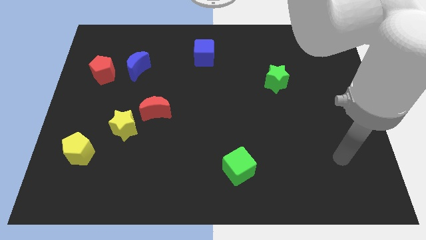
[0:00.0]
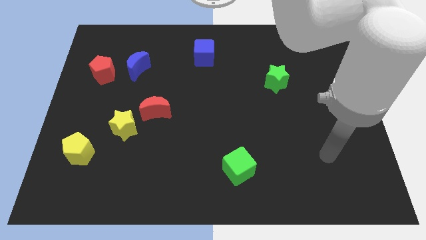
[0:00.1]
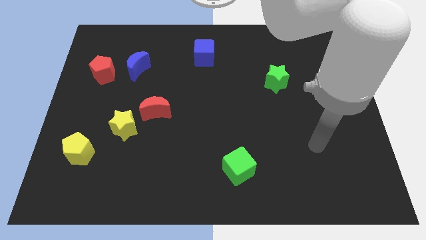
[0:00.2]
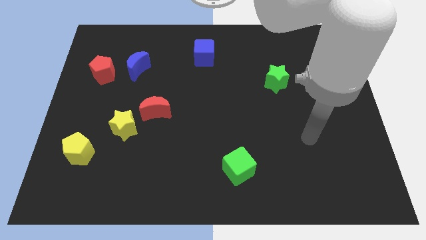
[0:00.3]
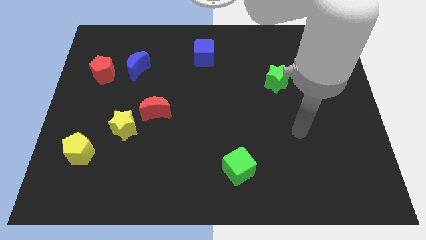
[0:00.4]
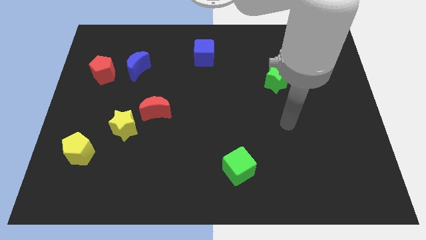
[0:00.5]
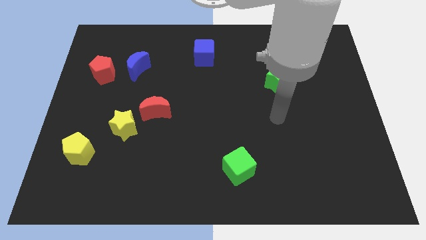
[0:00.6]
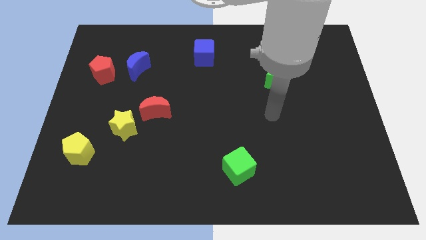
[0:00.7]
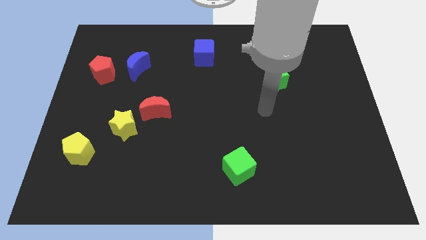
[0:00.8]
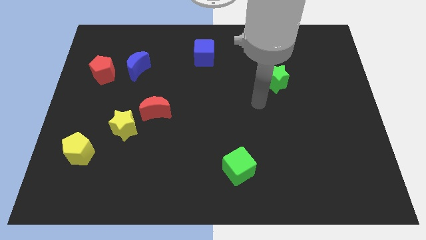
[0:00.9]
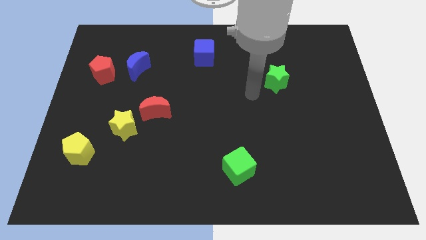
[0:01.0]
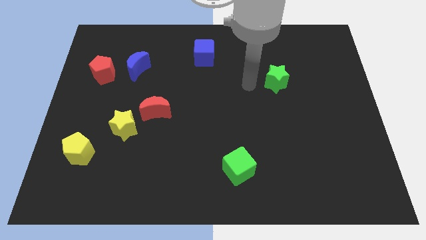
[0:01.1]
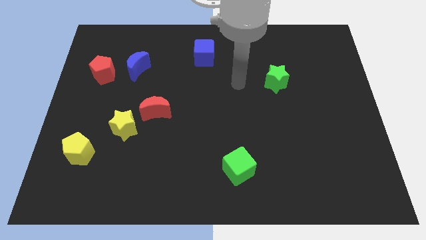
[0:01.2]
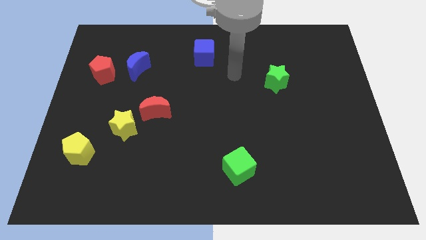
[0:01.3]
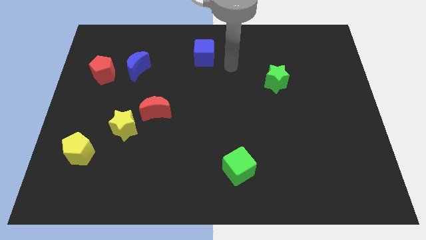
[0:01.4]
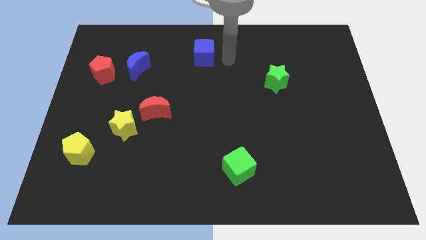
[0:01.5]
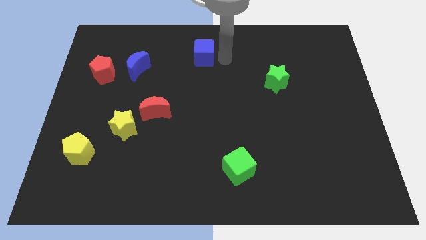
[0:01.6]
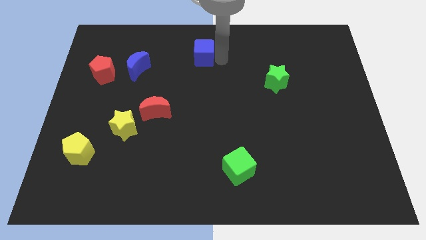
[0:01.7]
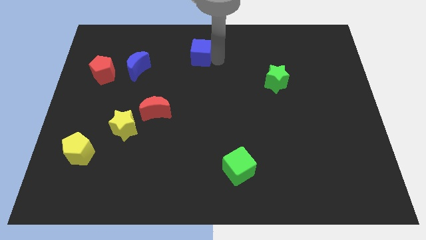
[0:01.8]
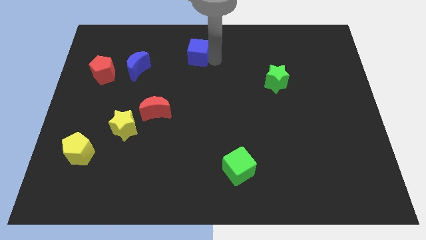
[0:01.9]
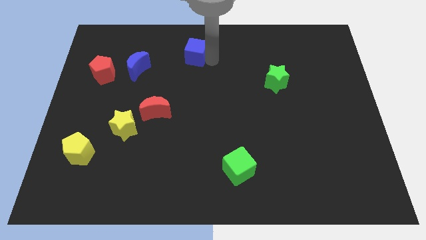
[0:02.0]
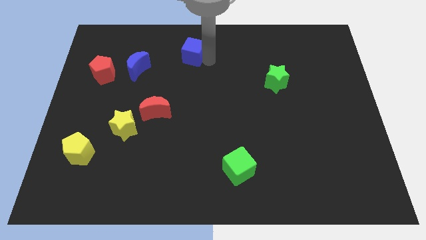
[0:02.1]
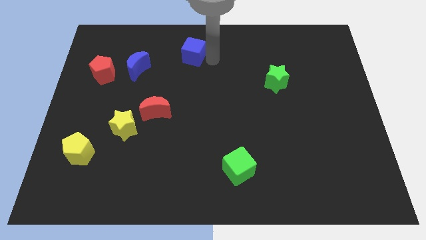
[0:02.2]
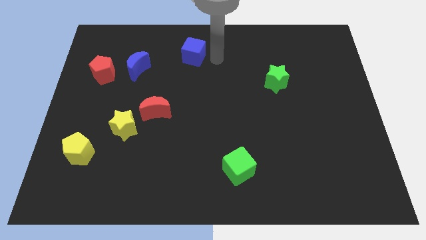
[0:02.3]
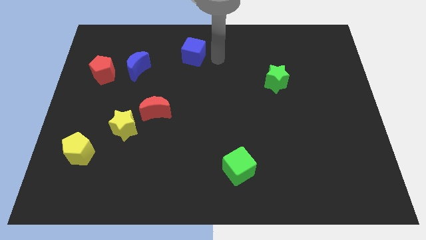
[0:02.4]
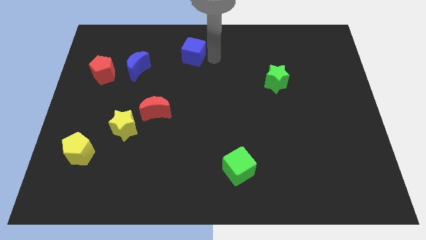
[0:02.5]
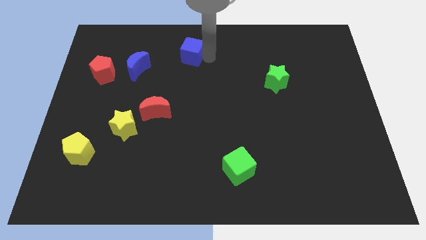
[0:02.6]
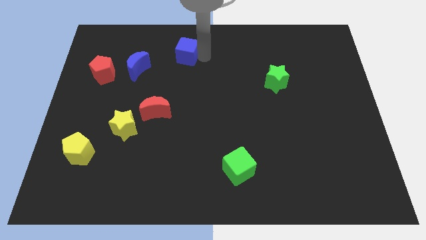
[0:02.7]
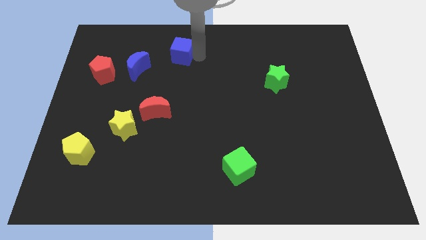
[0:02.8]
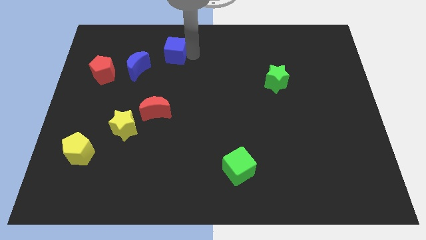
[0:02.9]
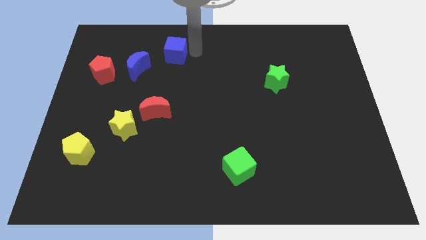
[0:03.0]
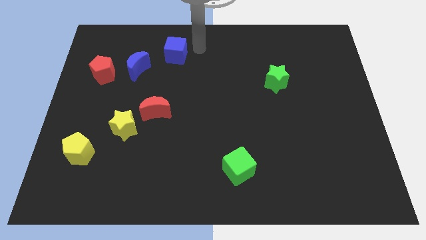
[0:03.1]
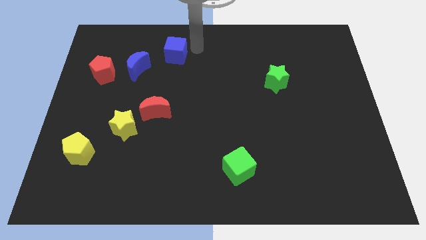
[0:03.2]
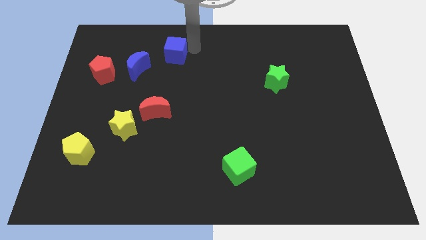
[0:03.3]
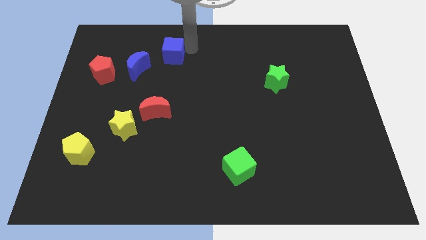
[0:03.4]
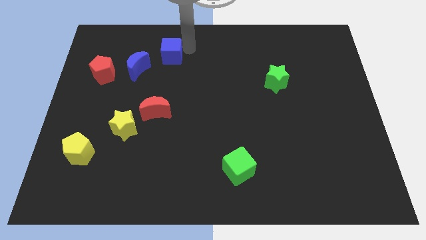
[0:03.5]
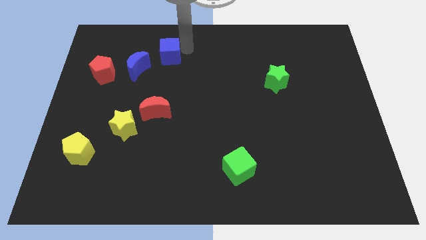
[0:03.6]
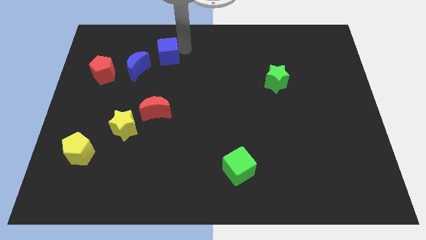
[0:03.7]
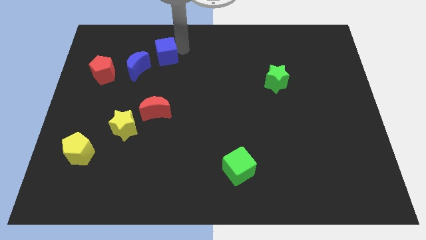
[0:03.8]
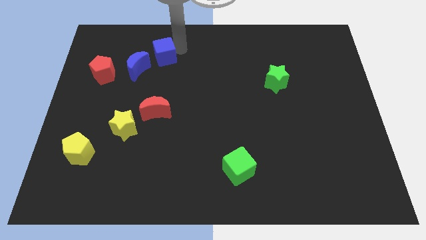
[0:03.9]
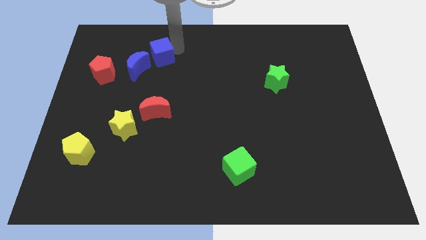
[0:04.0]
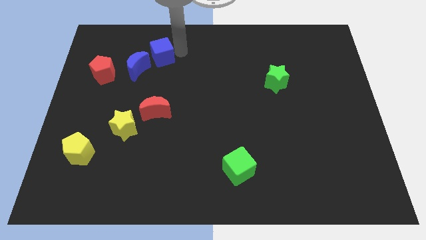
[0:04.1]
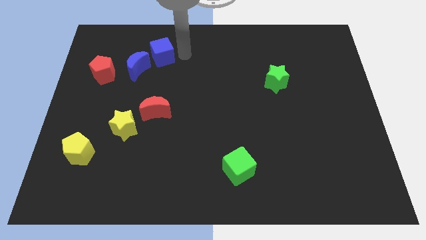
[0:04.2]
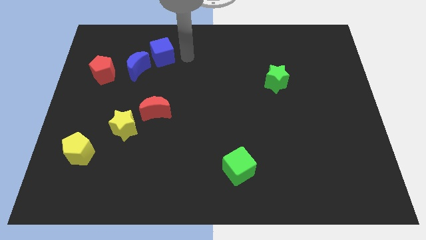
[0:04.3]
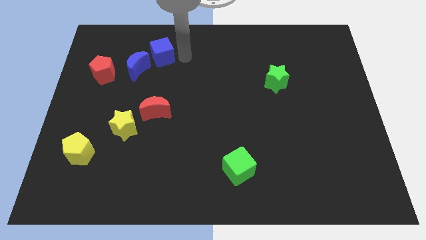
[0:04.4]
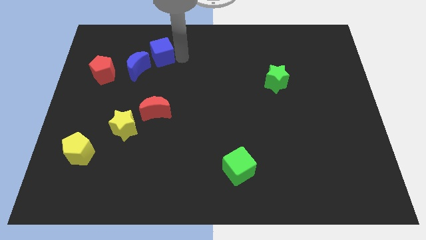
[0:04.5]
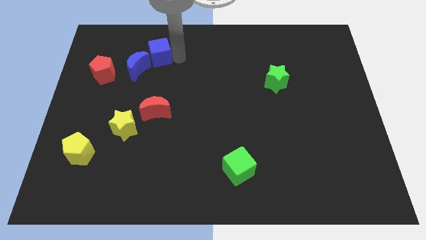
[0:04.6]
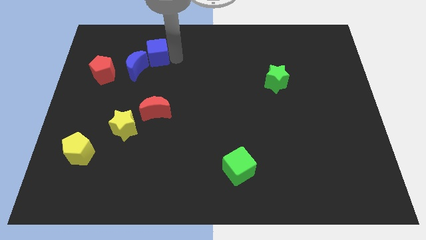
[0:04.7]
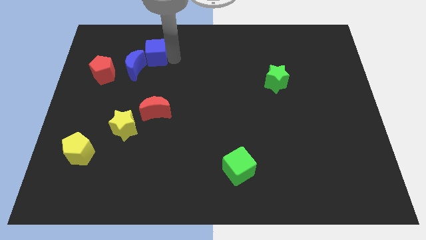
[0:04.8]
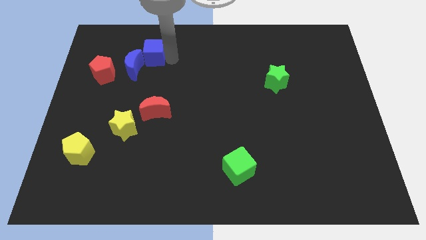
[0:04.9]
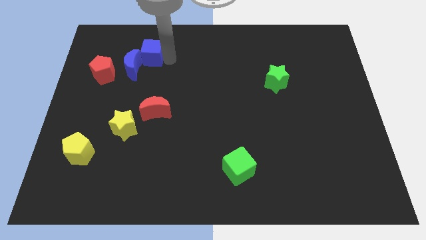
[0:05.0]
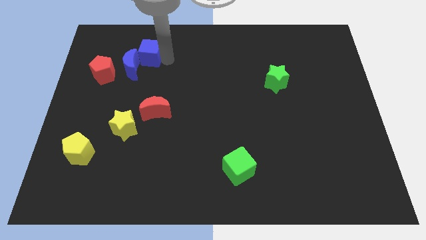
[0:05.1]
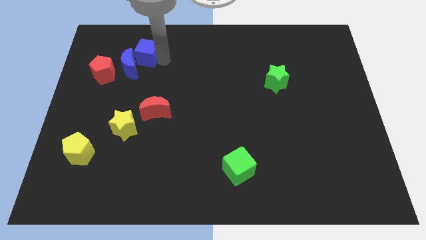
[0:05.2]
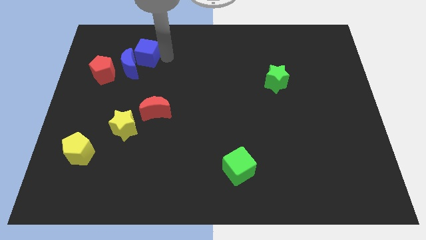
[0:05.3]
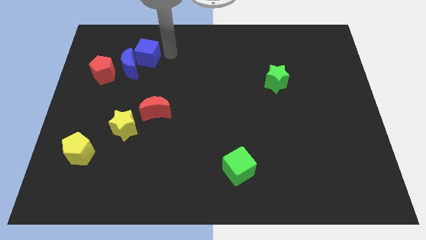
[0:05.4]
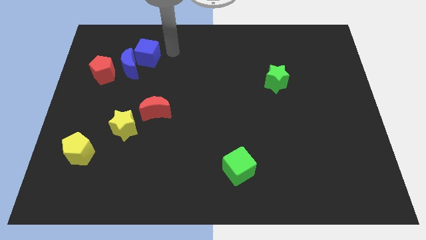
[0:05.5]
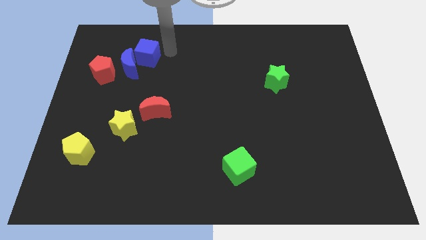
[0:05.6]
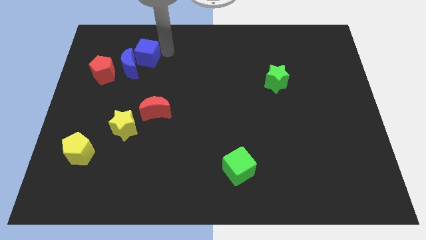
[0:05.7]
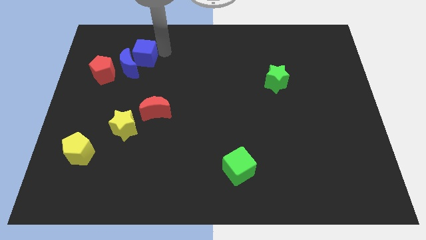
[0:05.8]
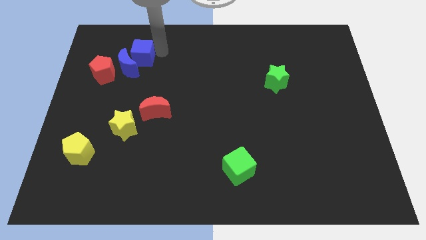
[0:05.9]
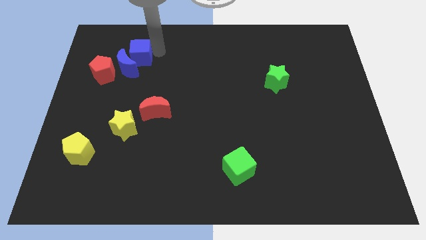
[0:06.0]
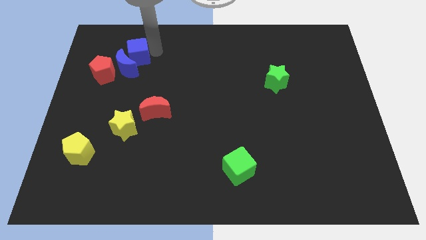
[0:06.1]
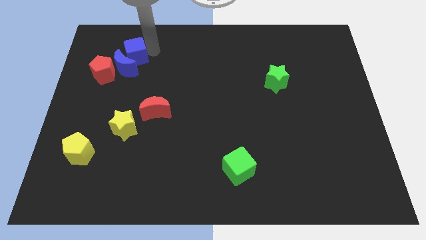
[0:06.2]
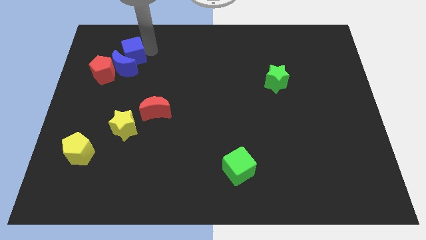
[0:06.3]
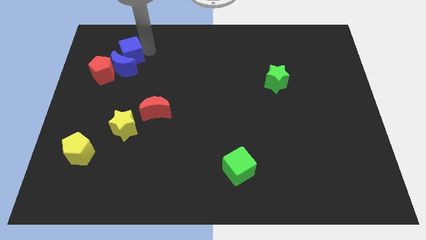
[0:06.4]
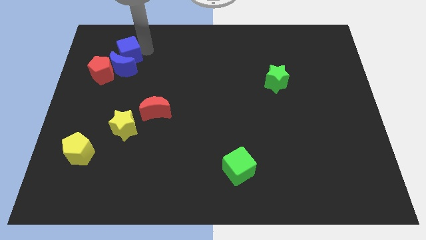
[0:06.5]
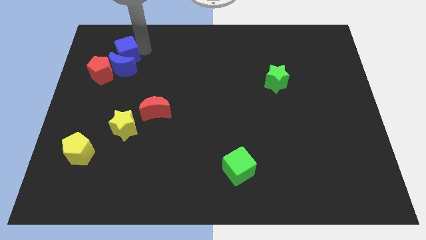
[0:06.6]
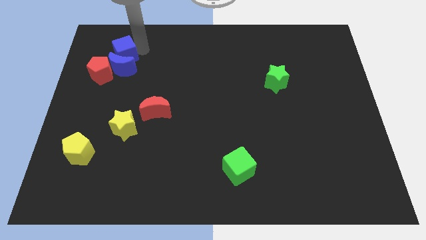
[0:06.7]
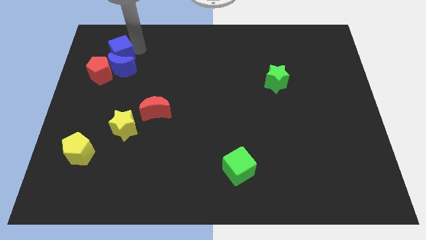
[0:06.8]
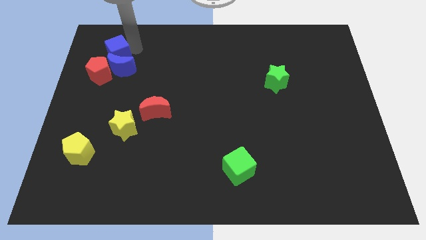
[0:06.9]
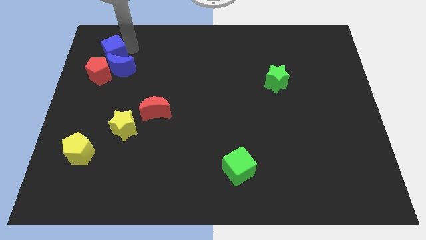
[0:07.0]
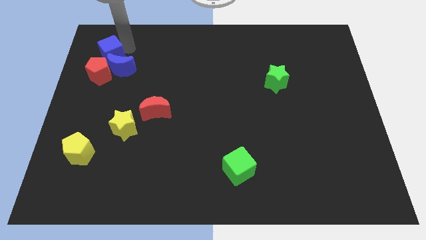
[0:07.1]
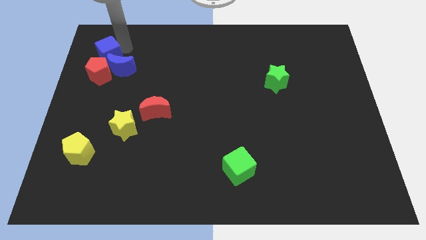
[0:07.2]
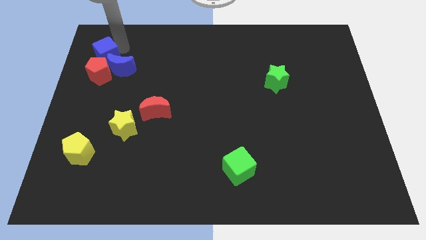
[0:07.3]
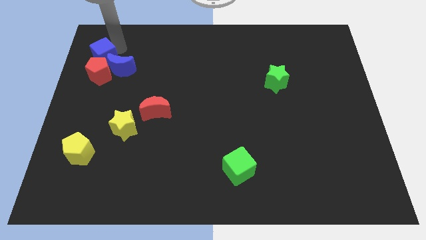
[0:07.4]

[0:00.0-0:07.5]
move the blue cube next to the red pentagon
